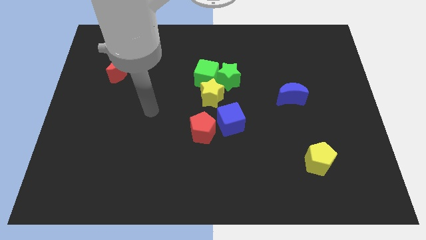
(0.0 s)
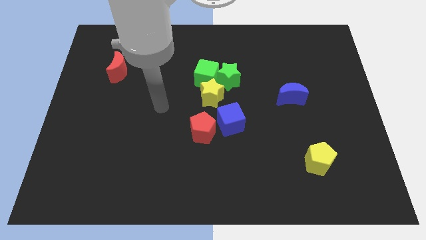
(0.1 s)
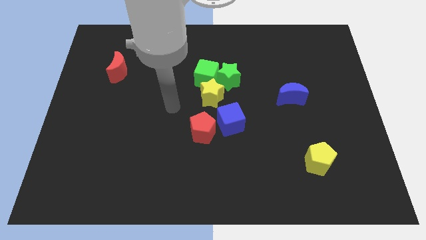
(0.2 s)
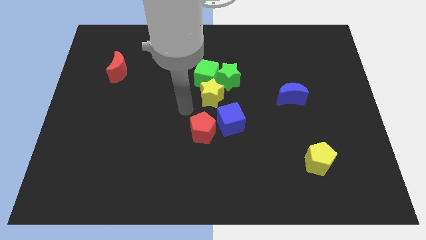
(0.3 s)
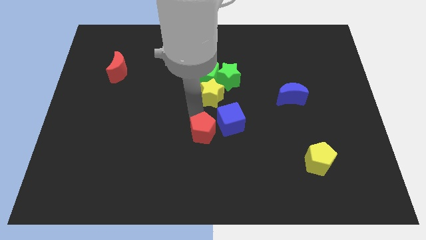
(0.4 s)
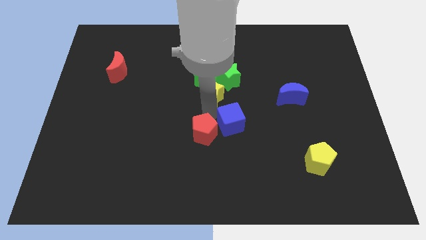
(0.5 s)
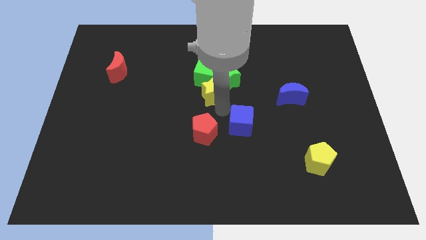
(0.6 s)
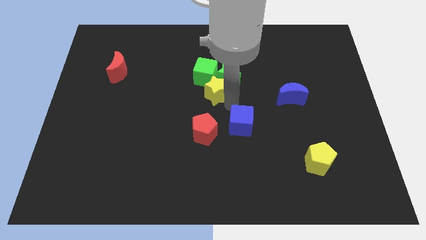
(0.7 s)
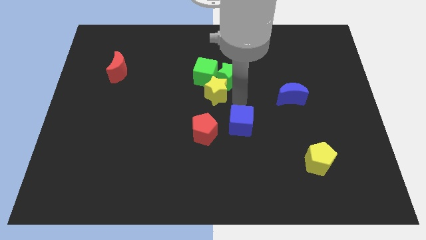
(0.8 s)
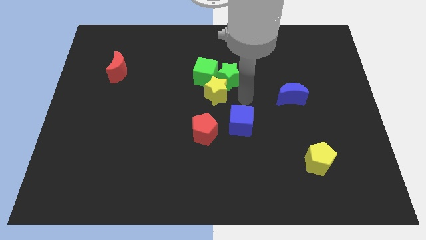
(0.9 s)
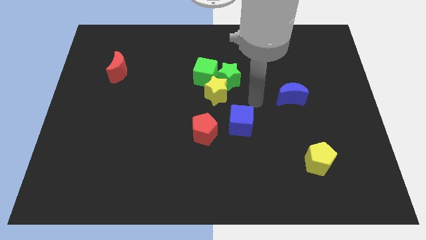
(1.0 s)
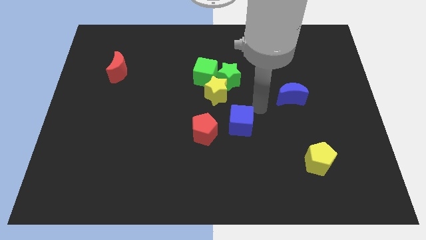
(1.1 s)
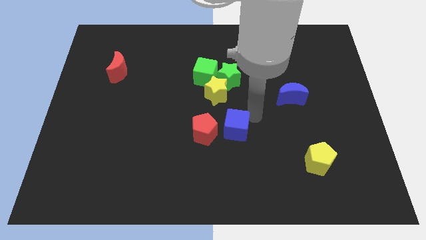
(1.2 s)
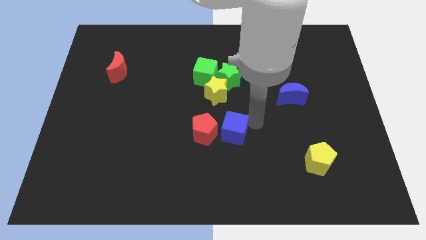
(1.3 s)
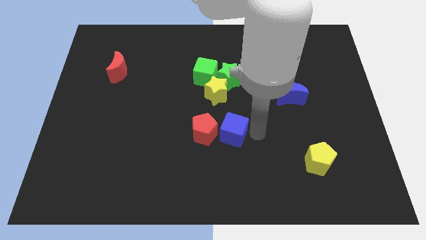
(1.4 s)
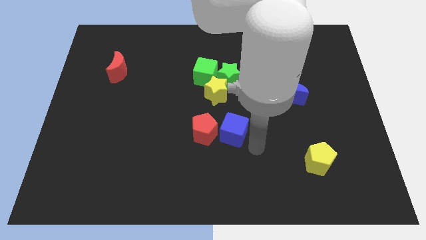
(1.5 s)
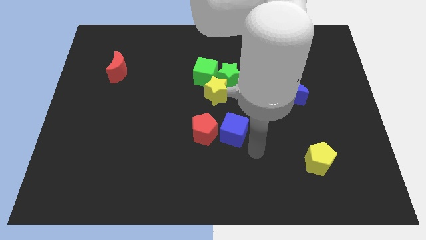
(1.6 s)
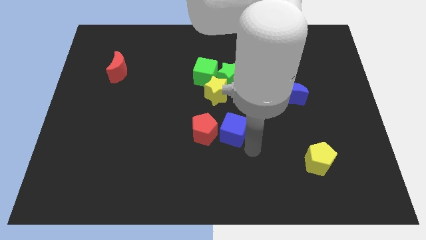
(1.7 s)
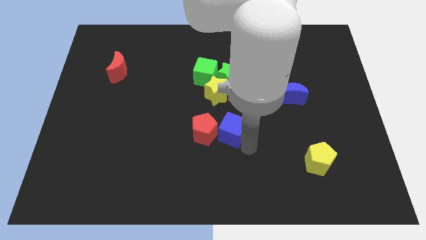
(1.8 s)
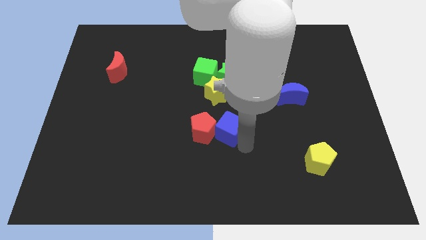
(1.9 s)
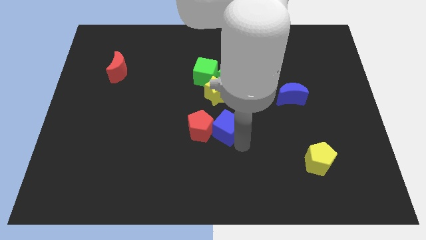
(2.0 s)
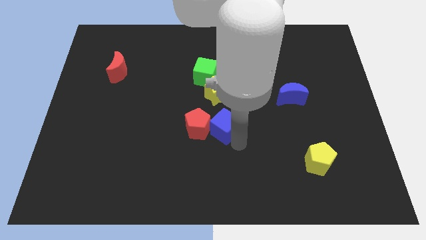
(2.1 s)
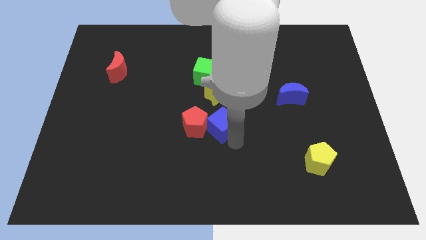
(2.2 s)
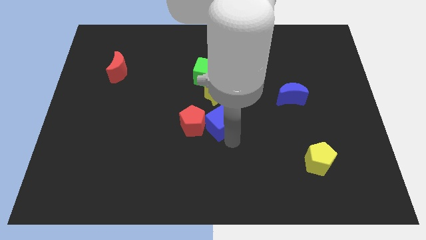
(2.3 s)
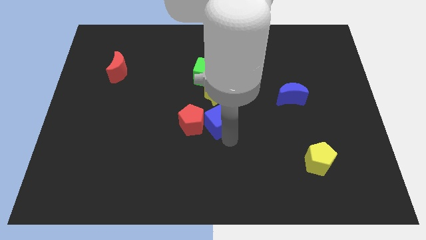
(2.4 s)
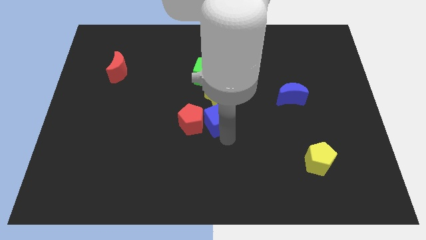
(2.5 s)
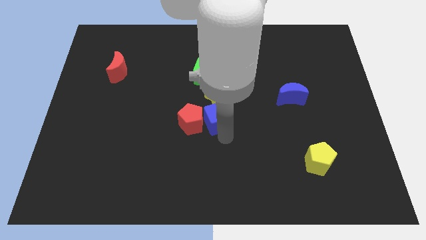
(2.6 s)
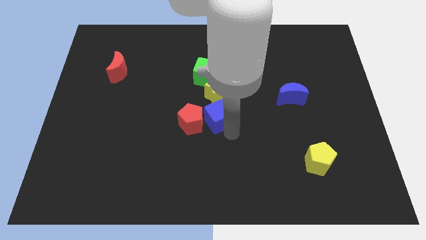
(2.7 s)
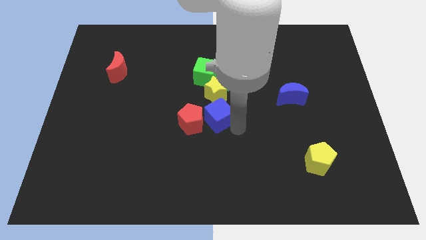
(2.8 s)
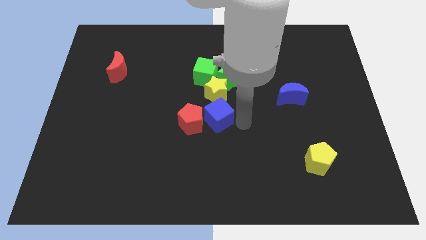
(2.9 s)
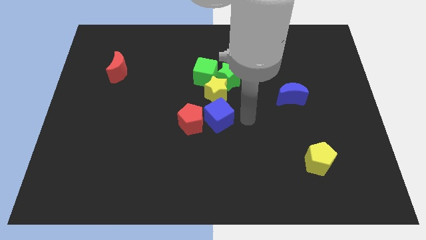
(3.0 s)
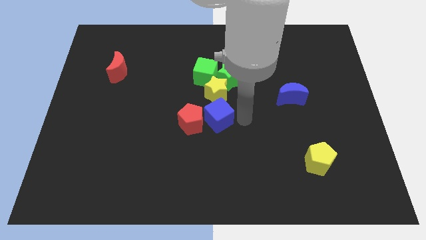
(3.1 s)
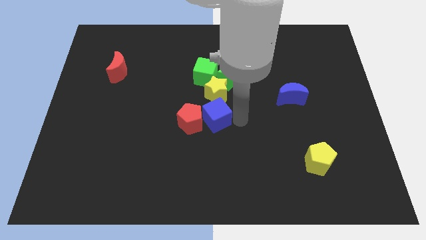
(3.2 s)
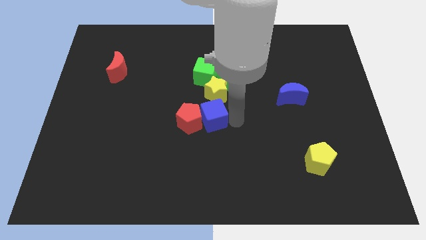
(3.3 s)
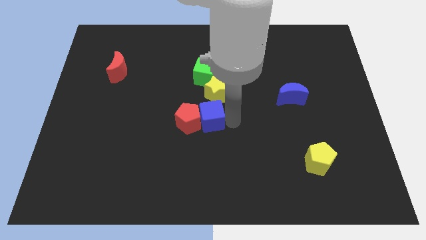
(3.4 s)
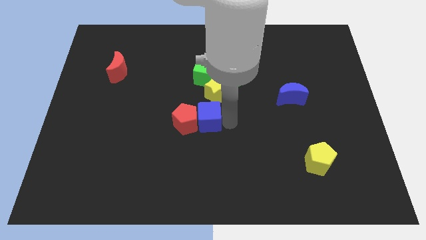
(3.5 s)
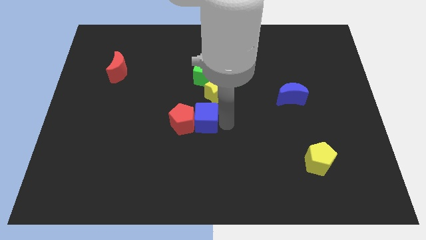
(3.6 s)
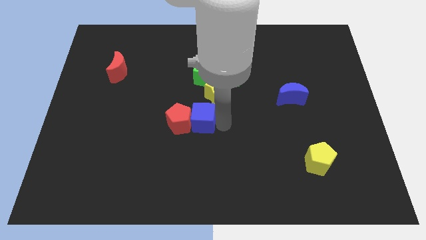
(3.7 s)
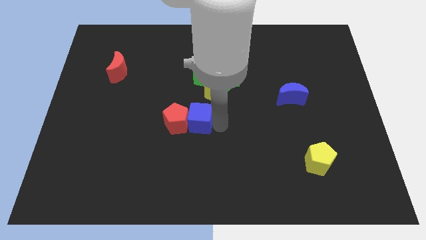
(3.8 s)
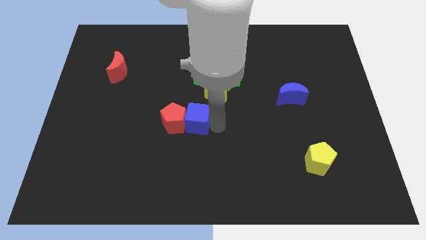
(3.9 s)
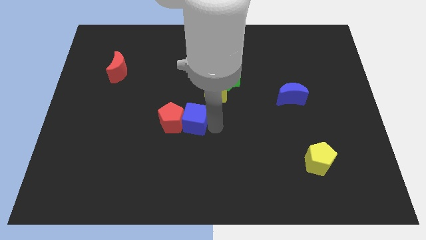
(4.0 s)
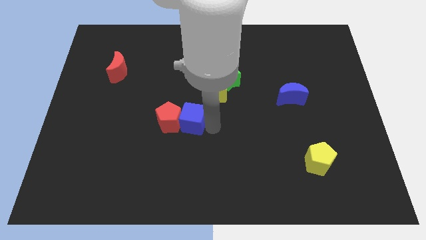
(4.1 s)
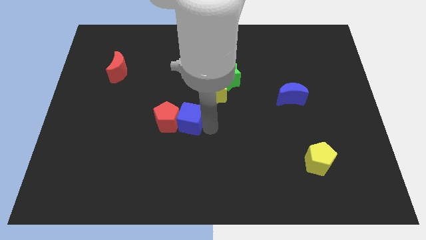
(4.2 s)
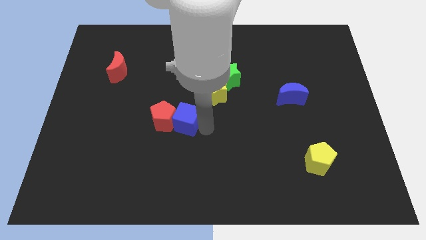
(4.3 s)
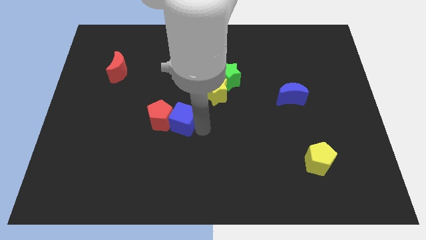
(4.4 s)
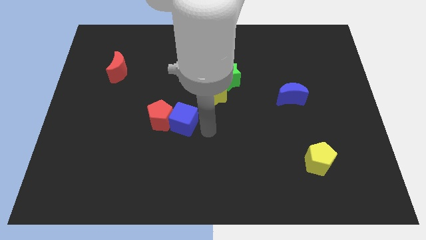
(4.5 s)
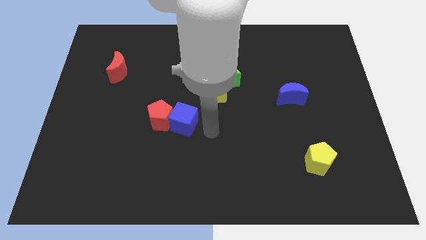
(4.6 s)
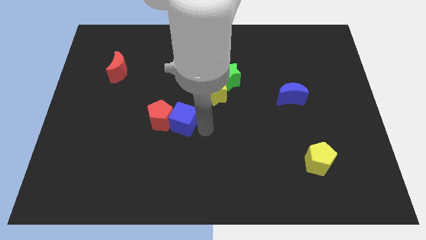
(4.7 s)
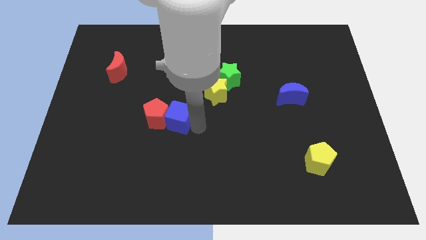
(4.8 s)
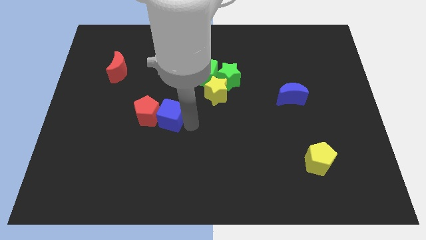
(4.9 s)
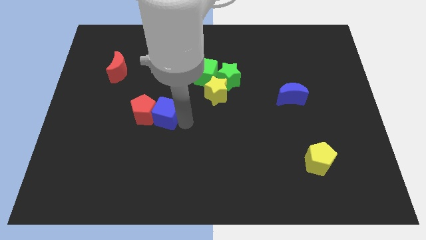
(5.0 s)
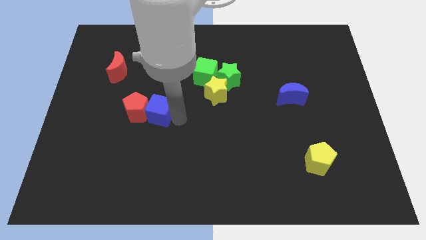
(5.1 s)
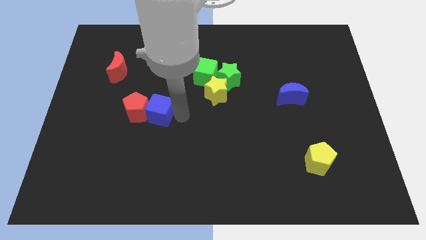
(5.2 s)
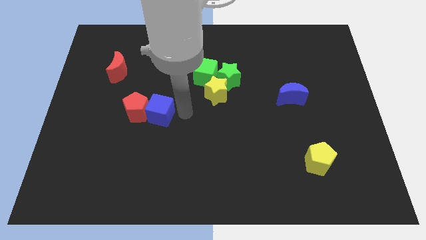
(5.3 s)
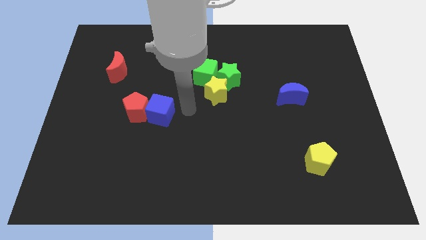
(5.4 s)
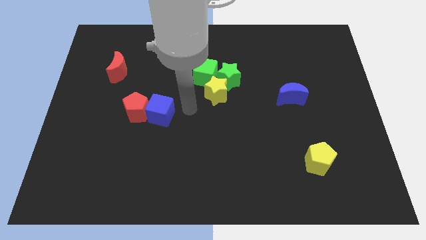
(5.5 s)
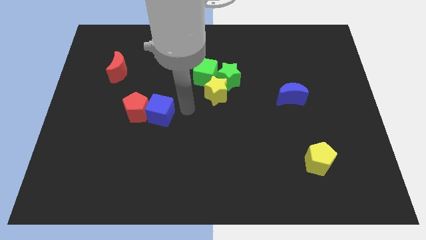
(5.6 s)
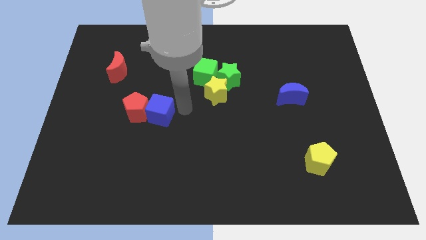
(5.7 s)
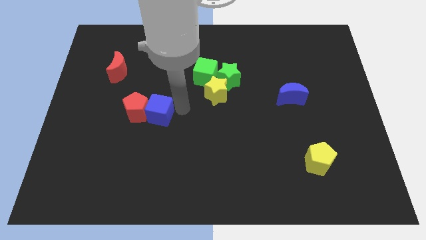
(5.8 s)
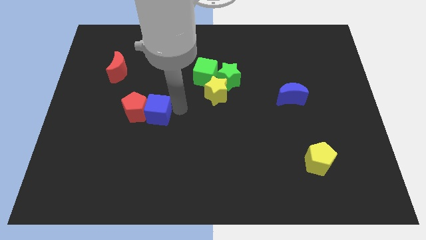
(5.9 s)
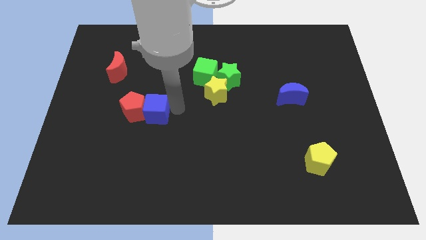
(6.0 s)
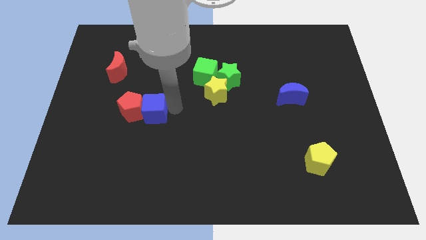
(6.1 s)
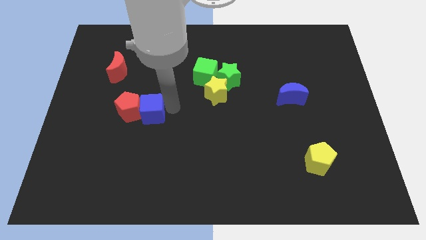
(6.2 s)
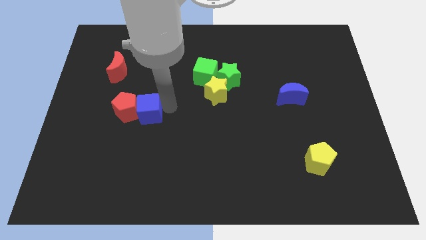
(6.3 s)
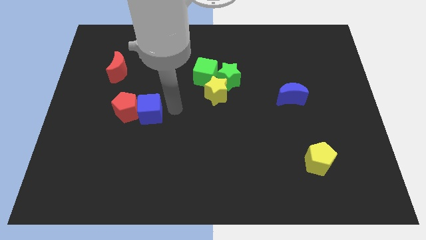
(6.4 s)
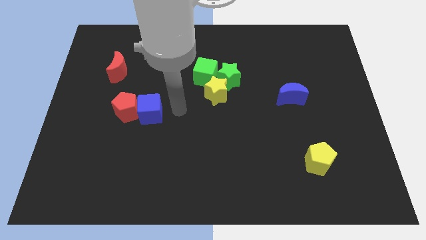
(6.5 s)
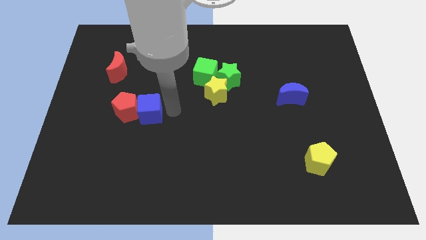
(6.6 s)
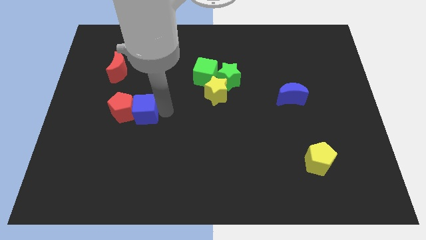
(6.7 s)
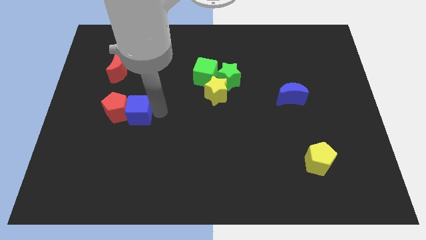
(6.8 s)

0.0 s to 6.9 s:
slide the blue cube to the left

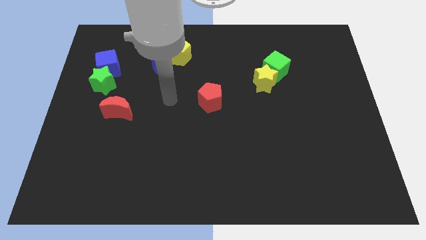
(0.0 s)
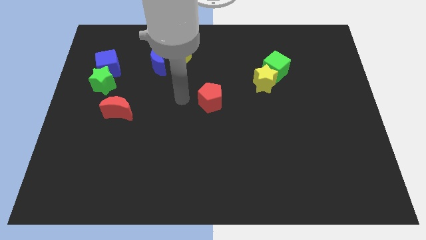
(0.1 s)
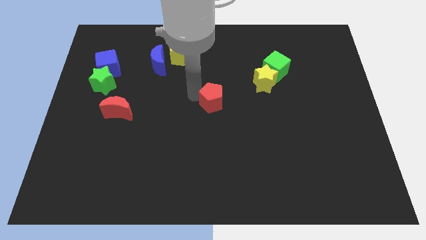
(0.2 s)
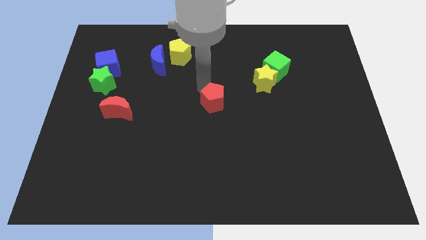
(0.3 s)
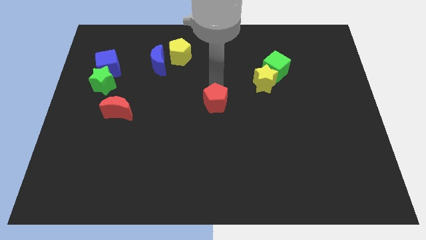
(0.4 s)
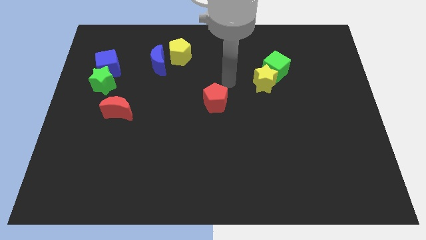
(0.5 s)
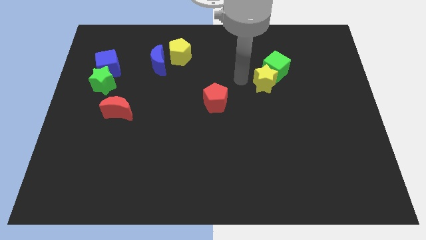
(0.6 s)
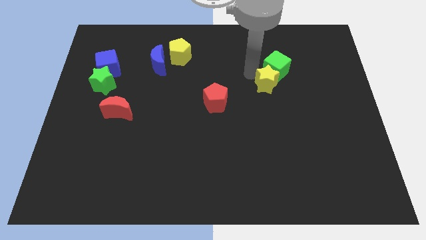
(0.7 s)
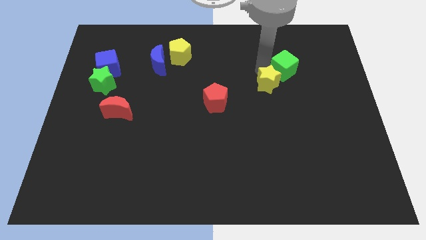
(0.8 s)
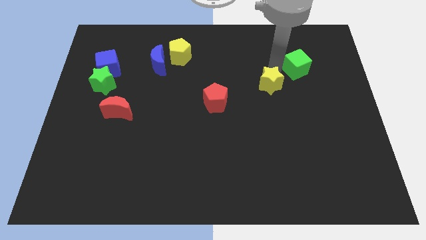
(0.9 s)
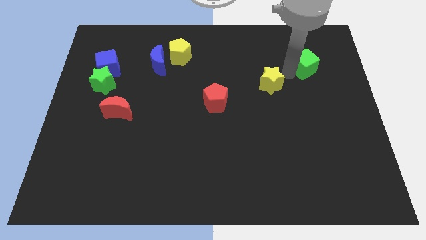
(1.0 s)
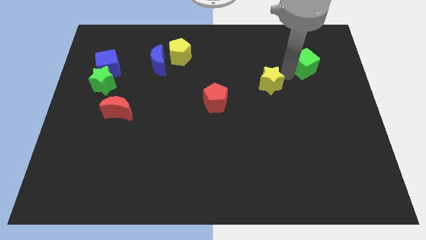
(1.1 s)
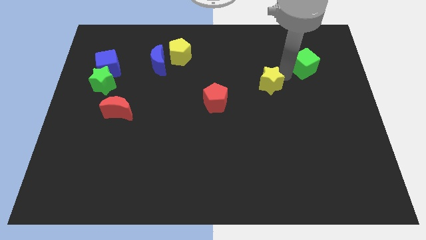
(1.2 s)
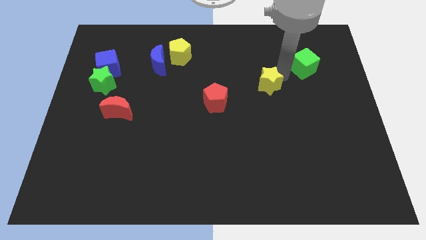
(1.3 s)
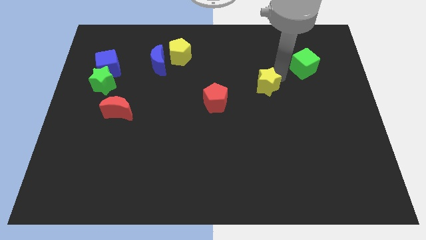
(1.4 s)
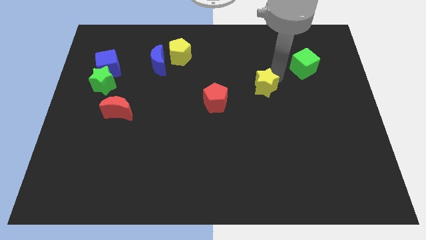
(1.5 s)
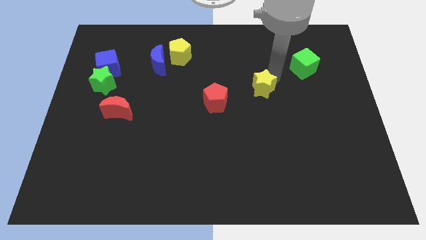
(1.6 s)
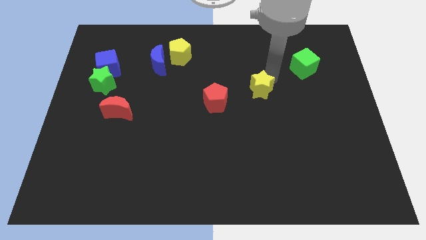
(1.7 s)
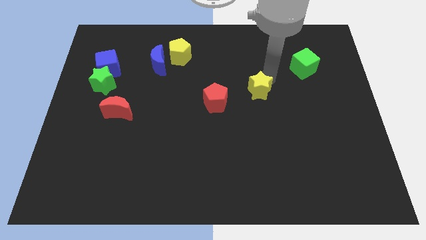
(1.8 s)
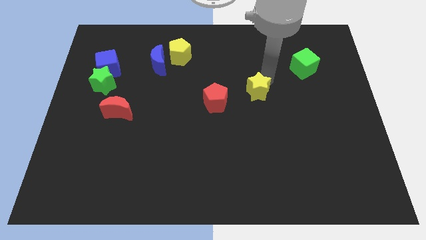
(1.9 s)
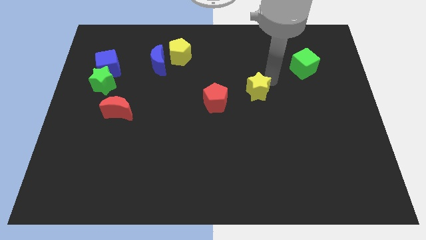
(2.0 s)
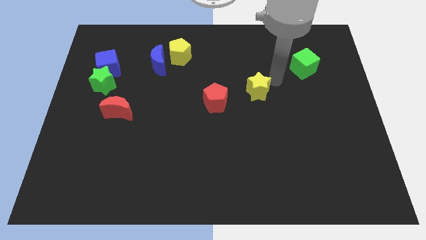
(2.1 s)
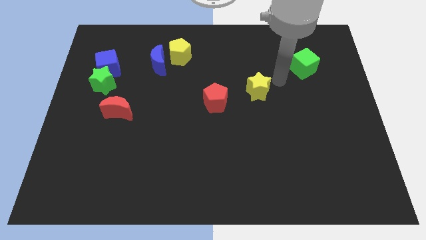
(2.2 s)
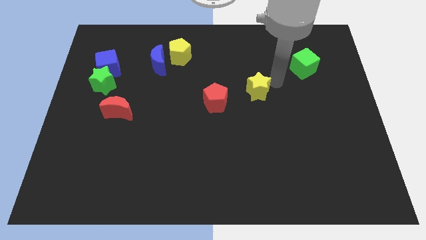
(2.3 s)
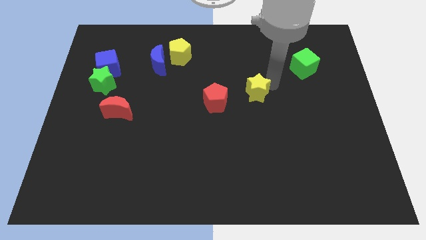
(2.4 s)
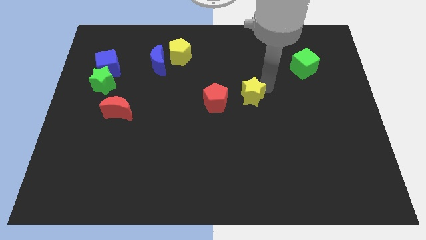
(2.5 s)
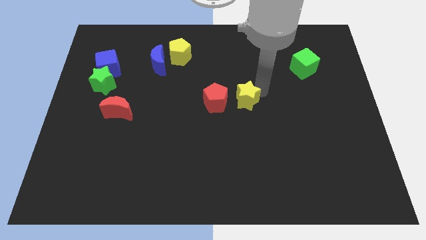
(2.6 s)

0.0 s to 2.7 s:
move the yellow star down and left diagonally a bit
